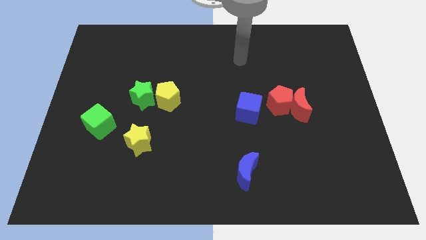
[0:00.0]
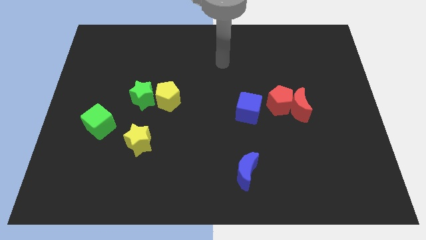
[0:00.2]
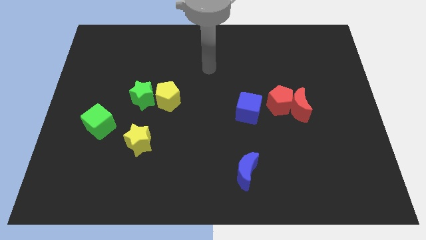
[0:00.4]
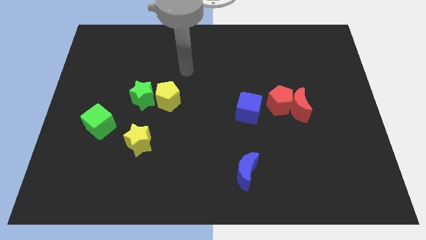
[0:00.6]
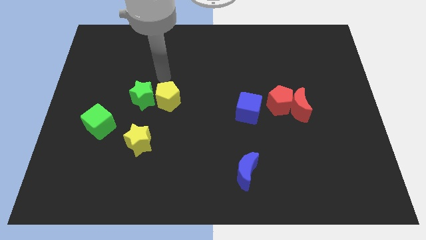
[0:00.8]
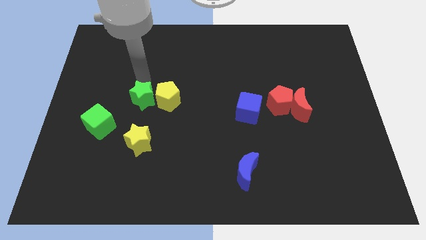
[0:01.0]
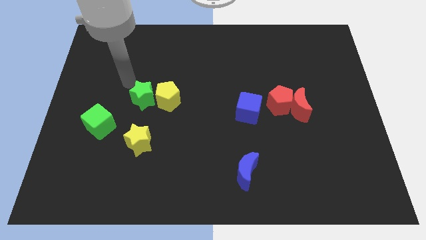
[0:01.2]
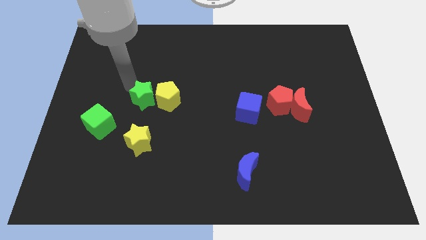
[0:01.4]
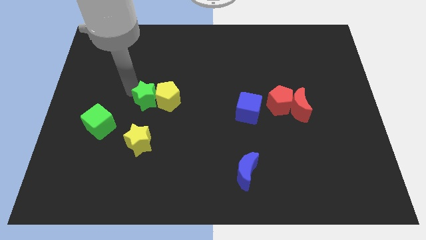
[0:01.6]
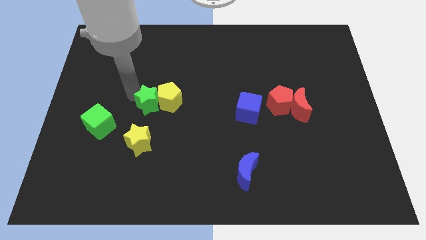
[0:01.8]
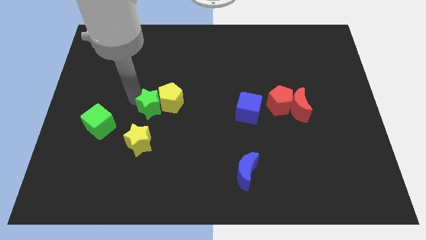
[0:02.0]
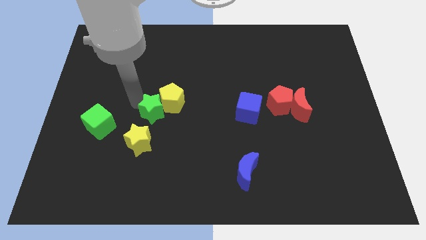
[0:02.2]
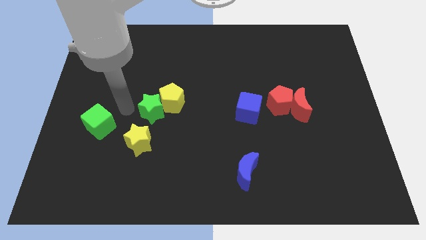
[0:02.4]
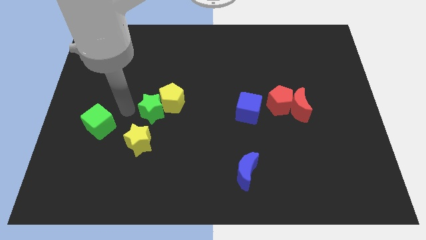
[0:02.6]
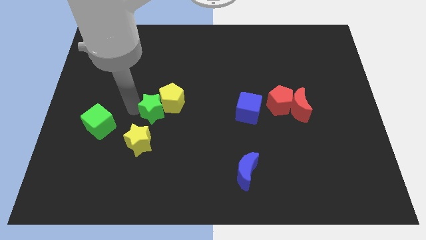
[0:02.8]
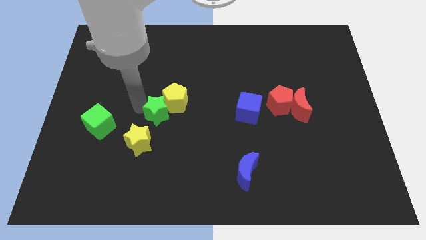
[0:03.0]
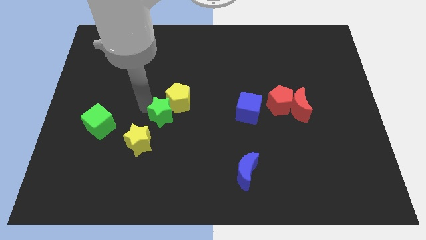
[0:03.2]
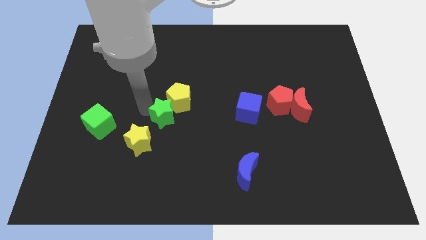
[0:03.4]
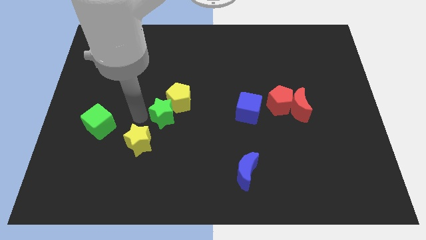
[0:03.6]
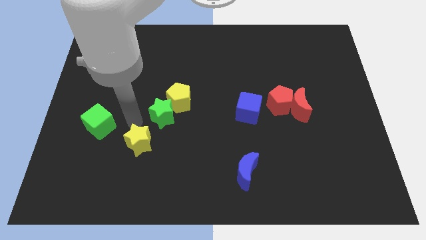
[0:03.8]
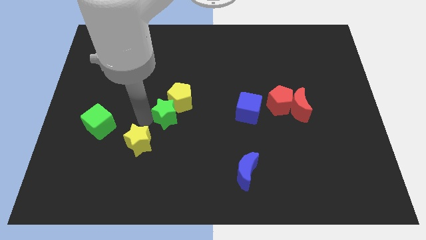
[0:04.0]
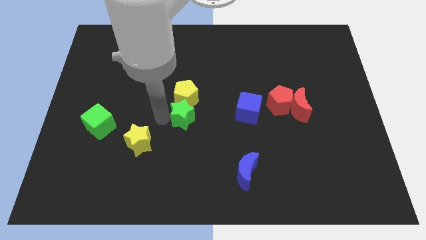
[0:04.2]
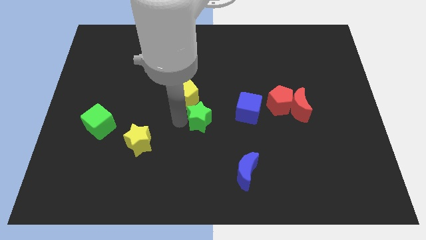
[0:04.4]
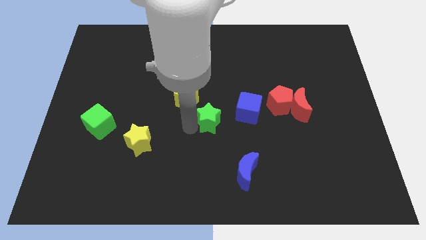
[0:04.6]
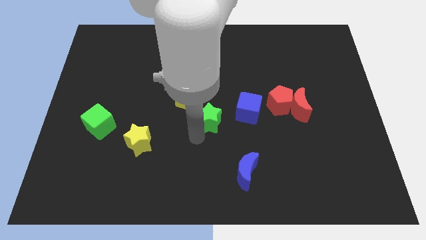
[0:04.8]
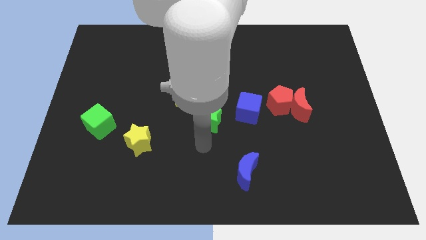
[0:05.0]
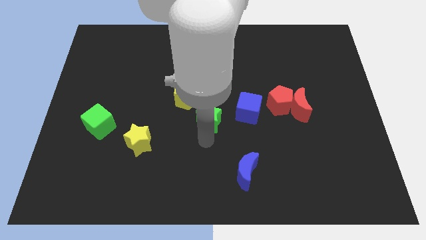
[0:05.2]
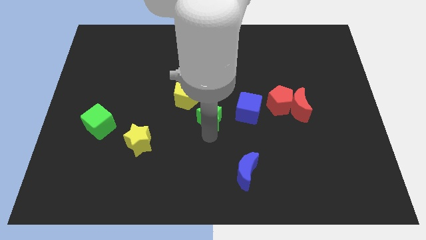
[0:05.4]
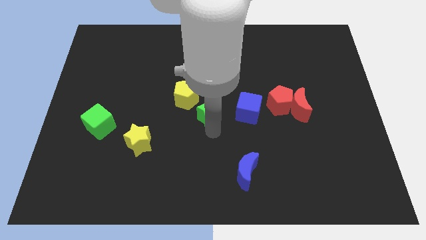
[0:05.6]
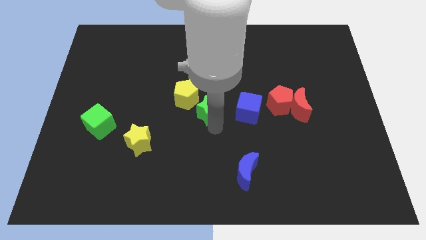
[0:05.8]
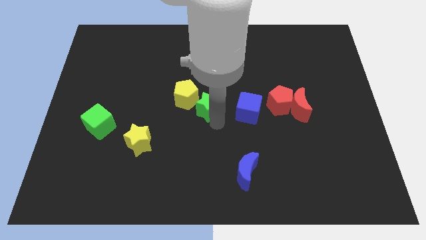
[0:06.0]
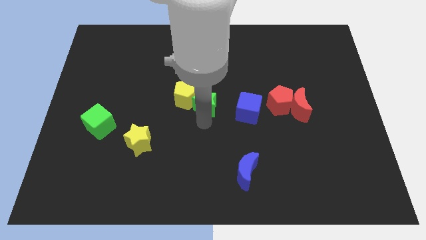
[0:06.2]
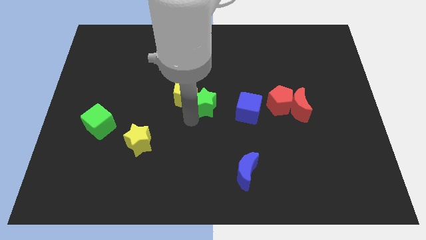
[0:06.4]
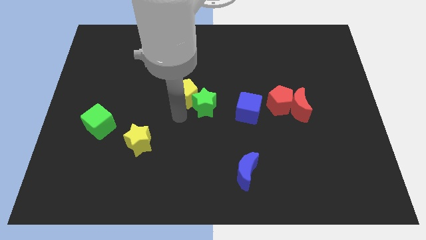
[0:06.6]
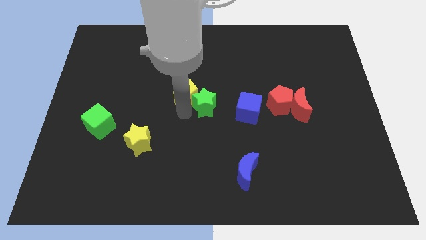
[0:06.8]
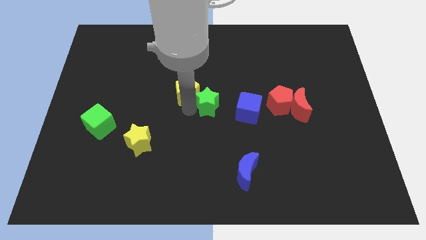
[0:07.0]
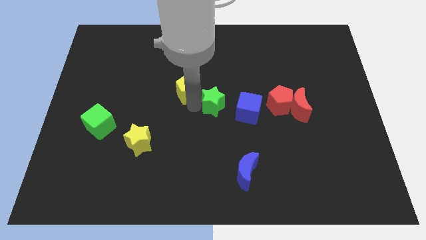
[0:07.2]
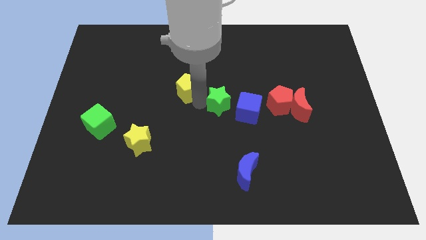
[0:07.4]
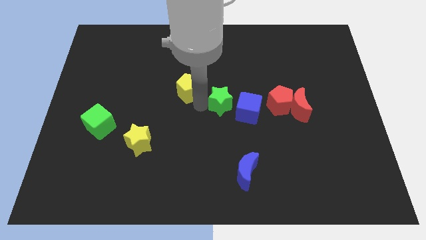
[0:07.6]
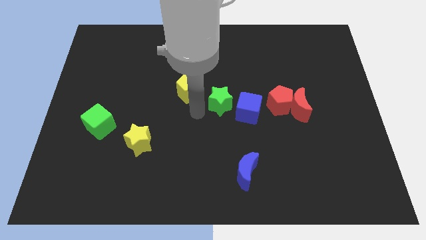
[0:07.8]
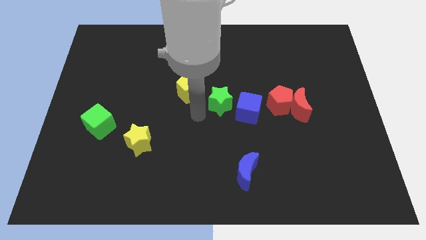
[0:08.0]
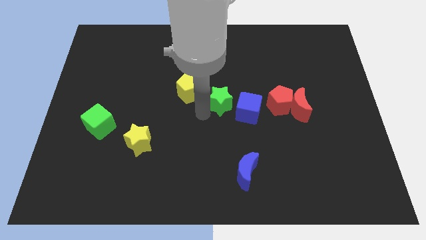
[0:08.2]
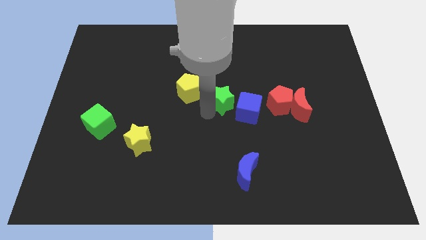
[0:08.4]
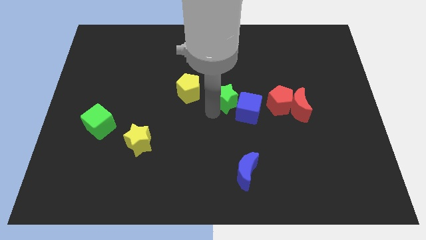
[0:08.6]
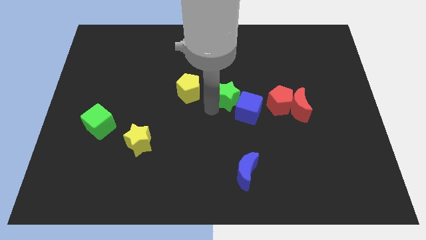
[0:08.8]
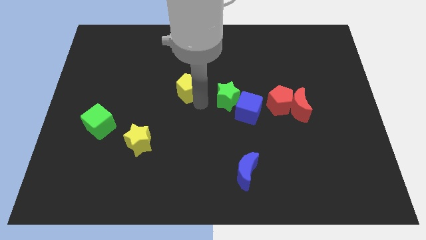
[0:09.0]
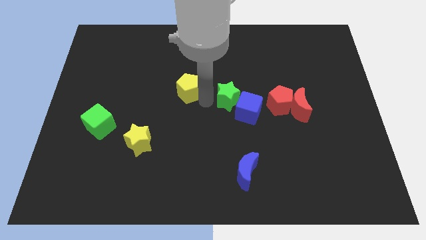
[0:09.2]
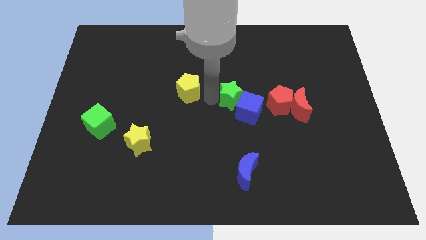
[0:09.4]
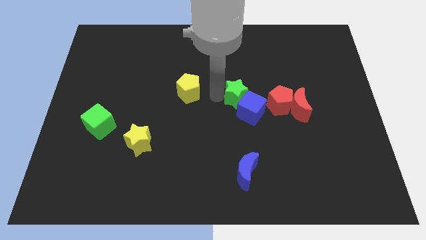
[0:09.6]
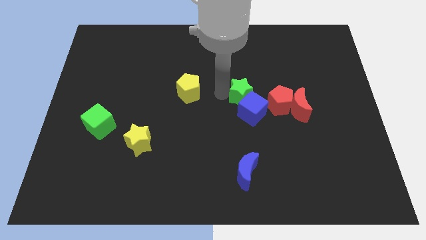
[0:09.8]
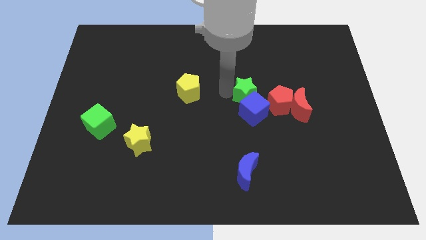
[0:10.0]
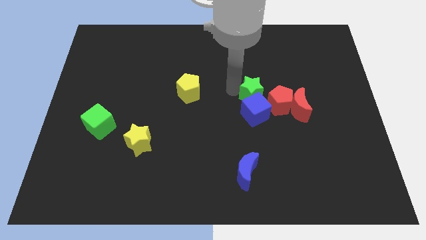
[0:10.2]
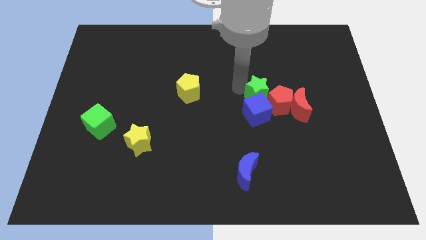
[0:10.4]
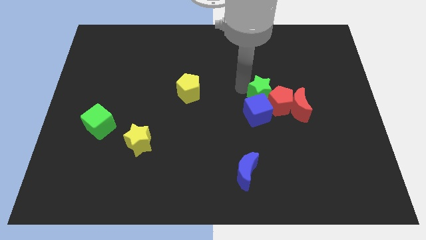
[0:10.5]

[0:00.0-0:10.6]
put the green star towards the red pentagon

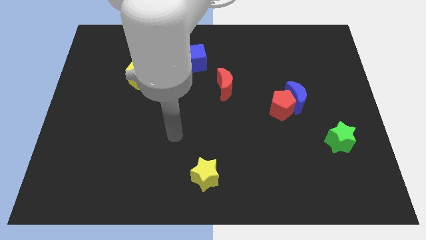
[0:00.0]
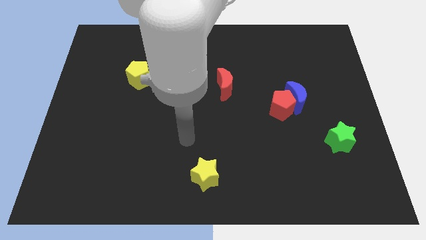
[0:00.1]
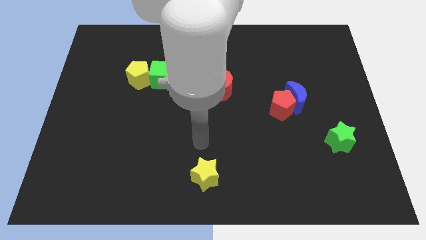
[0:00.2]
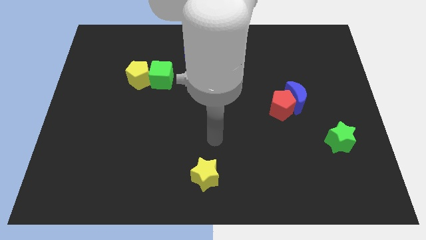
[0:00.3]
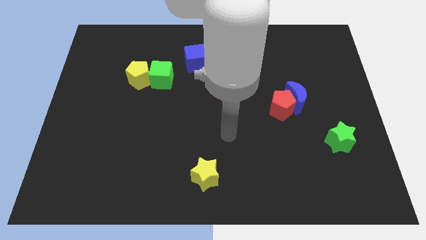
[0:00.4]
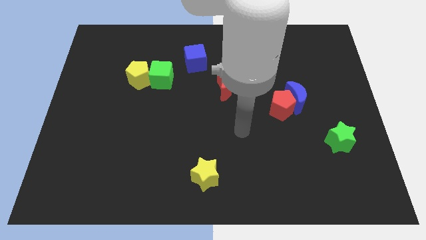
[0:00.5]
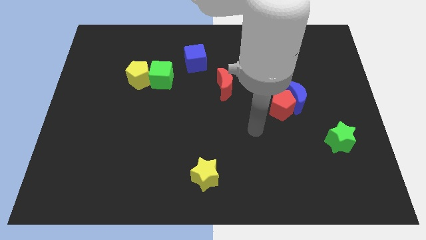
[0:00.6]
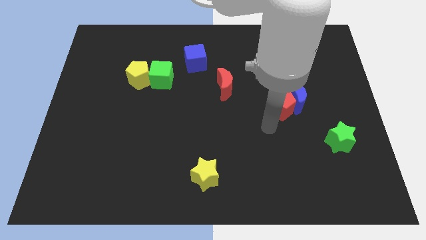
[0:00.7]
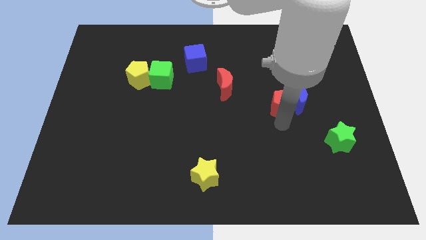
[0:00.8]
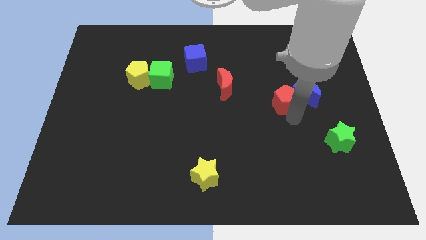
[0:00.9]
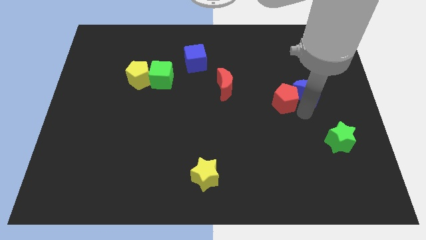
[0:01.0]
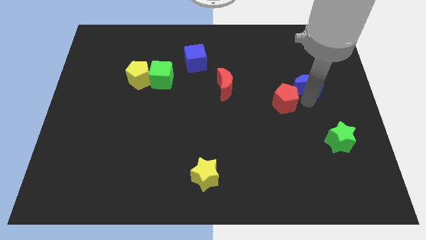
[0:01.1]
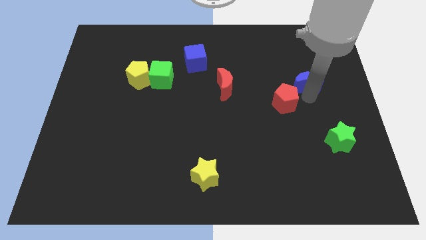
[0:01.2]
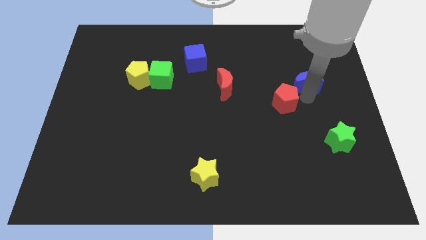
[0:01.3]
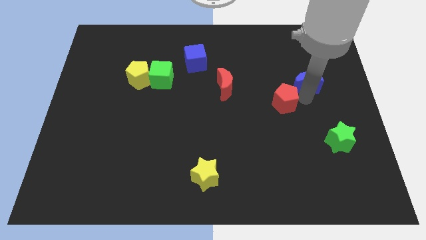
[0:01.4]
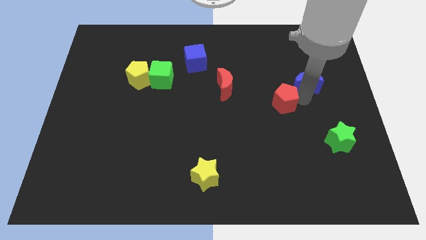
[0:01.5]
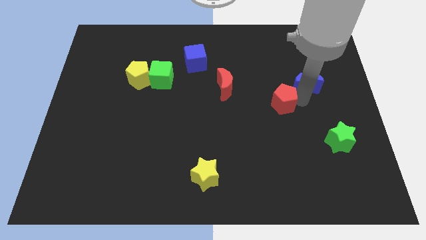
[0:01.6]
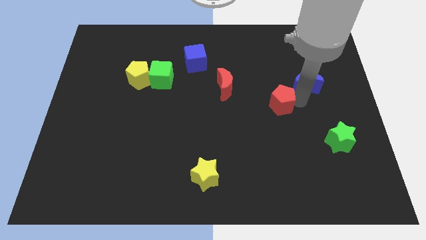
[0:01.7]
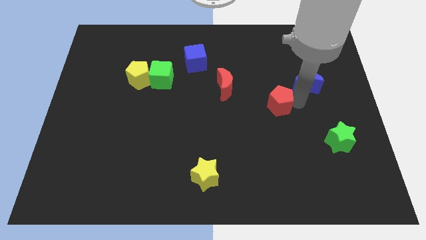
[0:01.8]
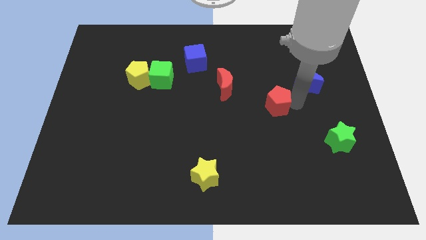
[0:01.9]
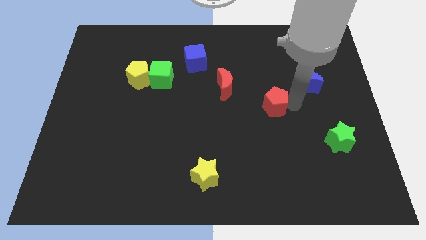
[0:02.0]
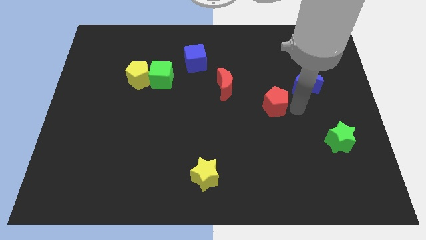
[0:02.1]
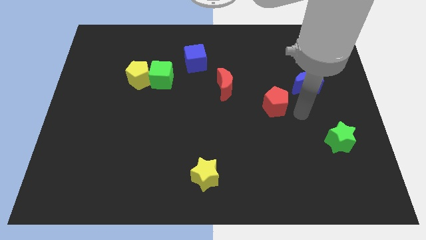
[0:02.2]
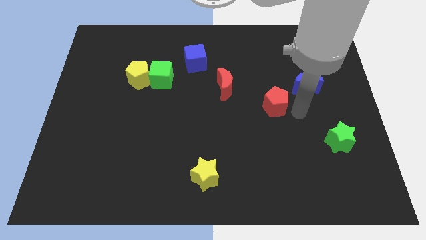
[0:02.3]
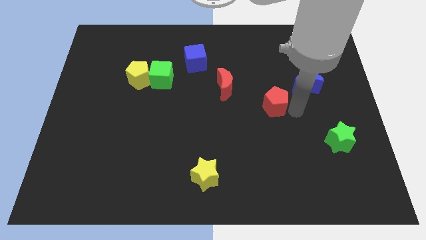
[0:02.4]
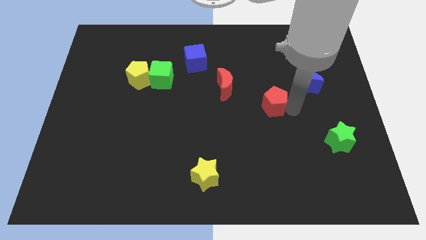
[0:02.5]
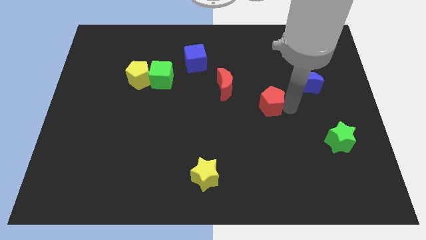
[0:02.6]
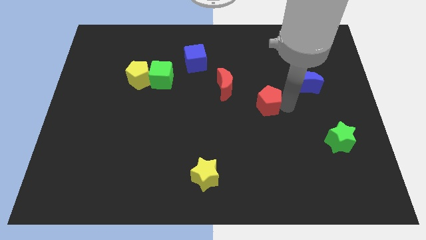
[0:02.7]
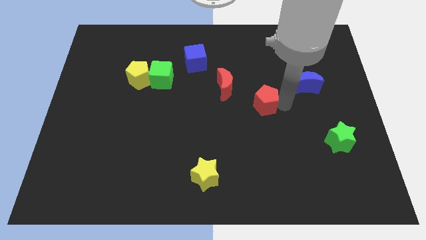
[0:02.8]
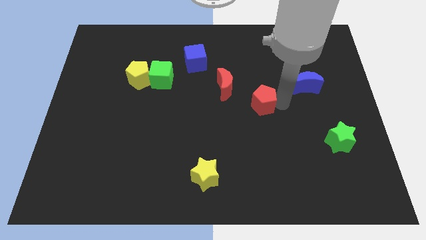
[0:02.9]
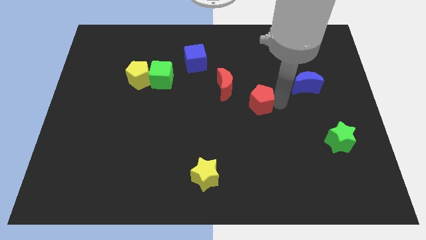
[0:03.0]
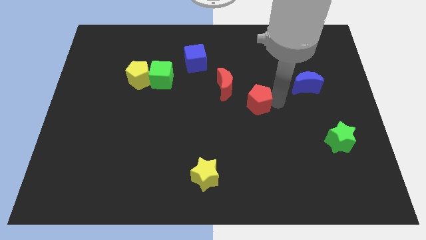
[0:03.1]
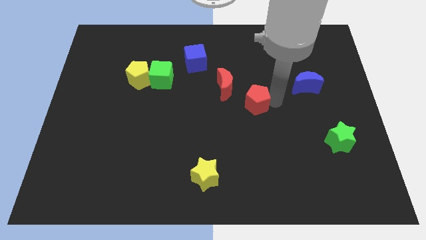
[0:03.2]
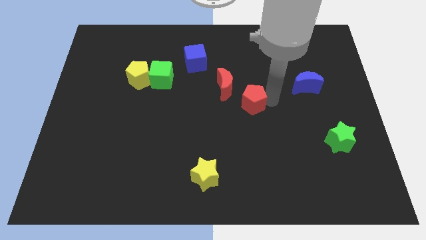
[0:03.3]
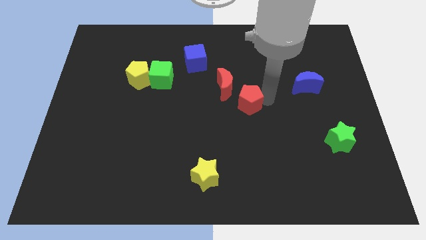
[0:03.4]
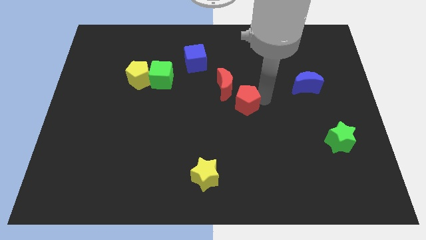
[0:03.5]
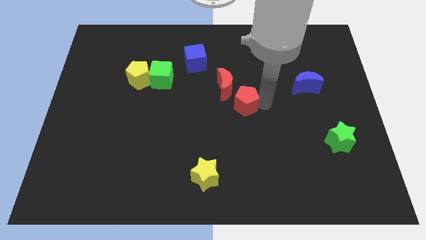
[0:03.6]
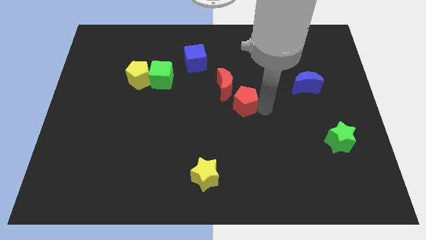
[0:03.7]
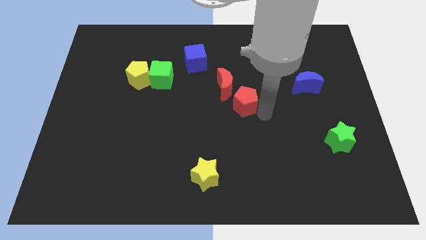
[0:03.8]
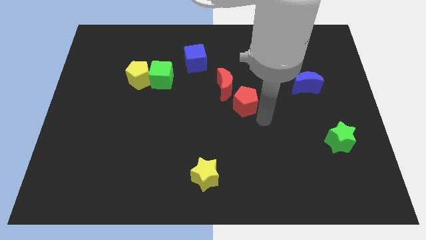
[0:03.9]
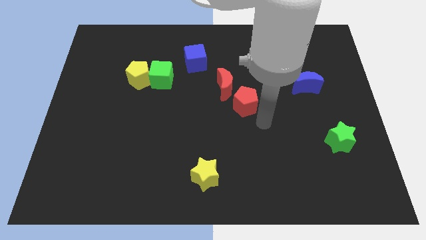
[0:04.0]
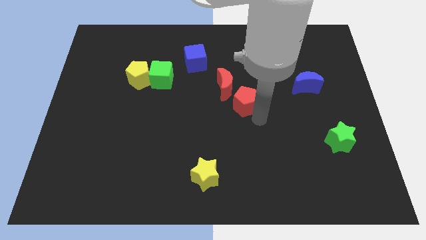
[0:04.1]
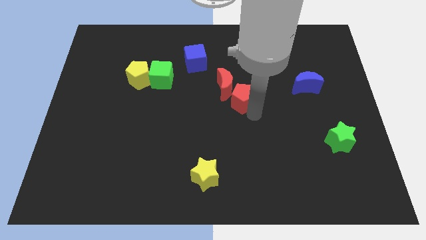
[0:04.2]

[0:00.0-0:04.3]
move the red pentagon to the red moon
